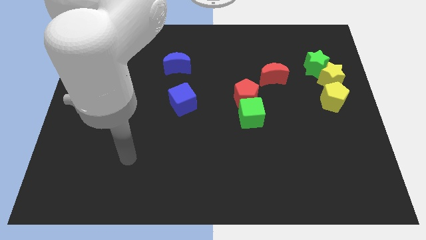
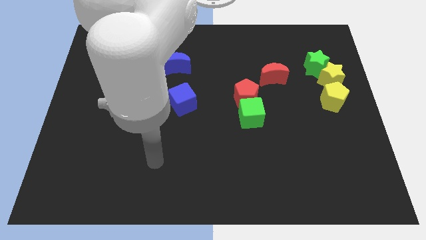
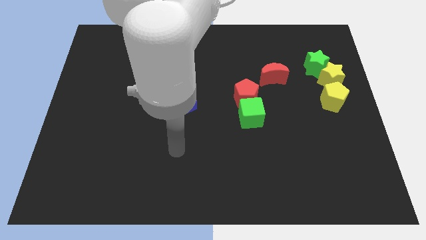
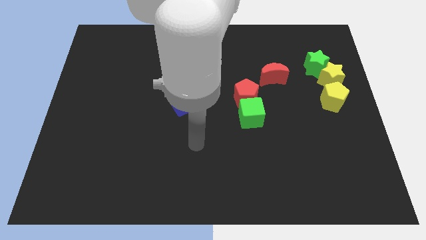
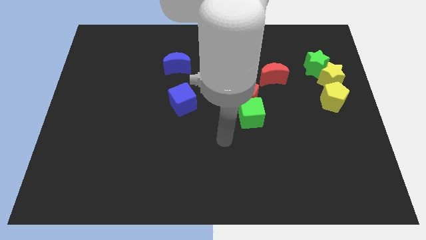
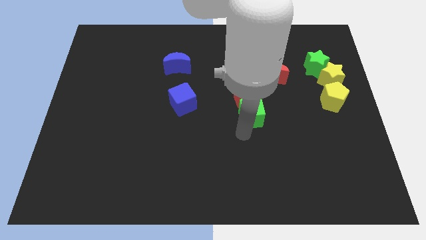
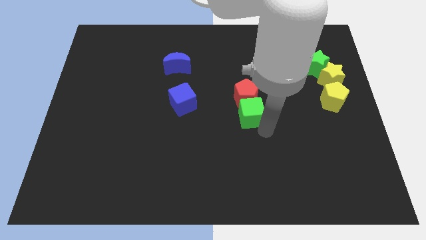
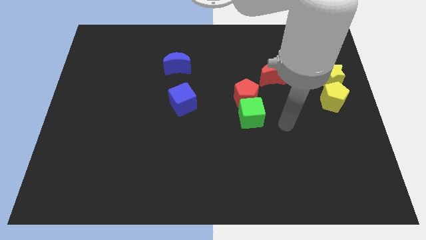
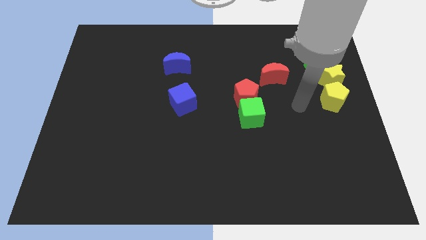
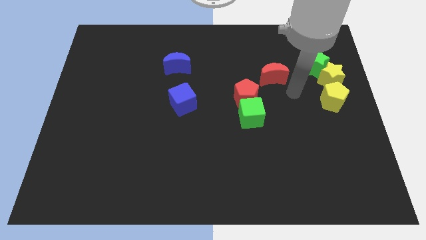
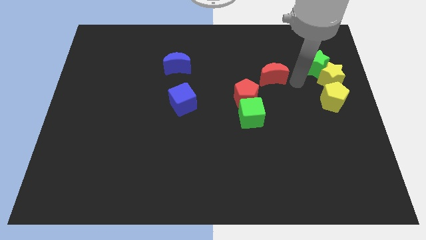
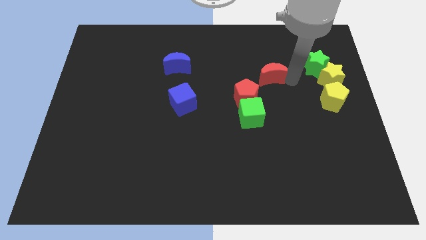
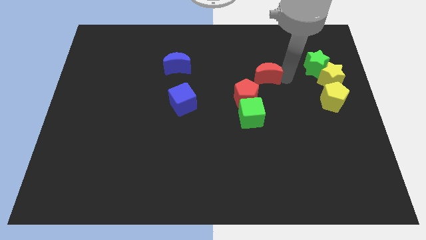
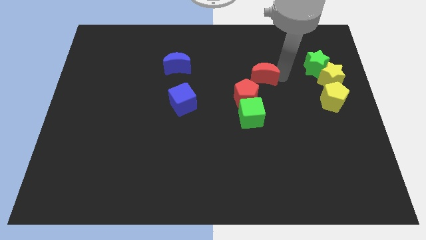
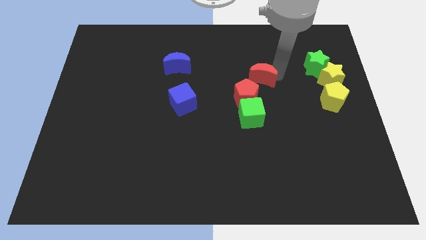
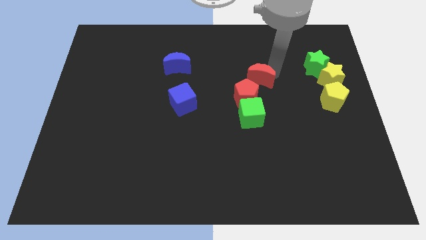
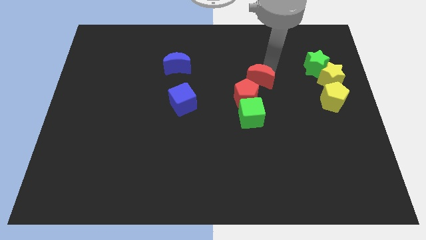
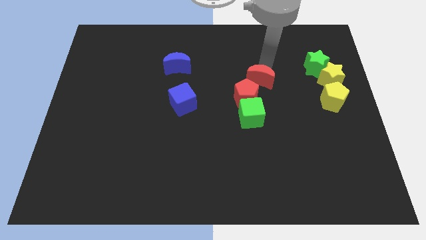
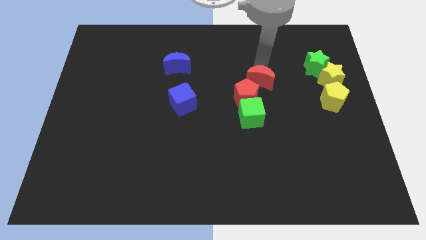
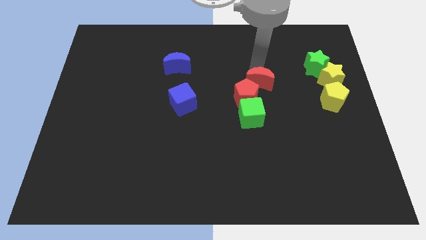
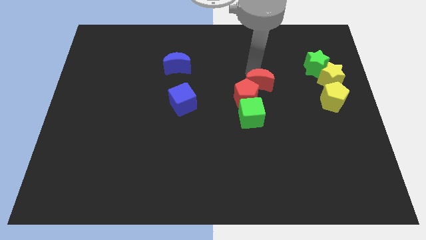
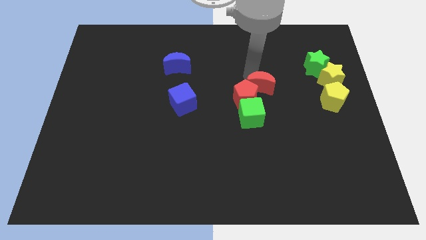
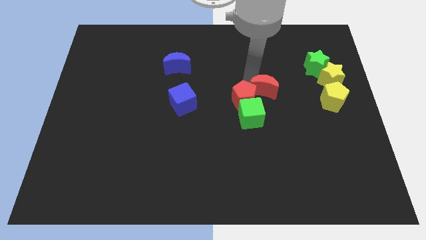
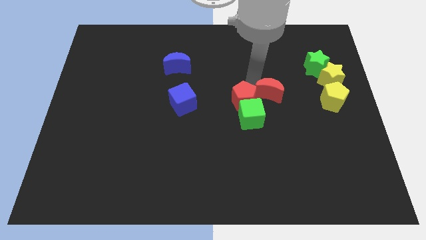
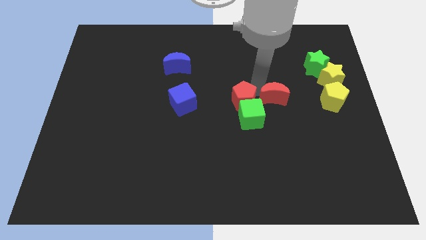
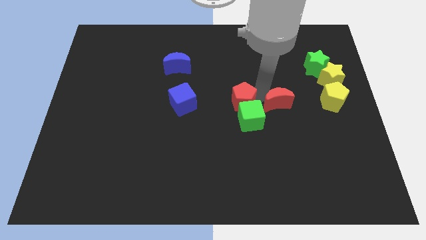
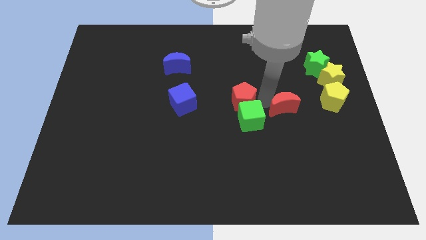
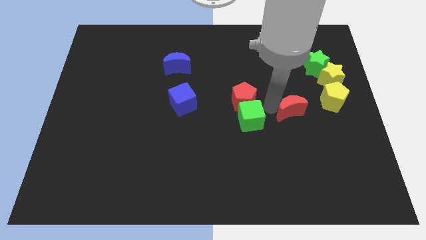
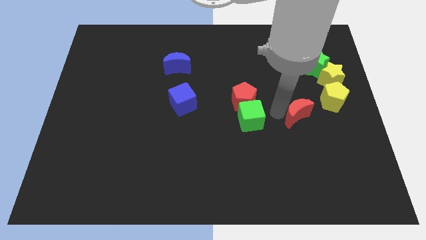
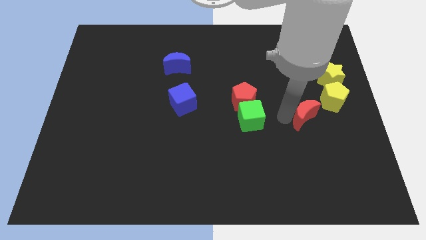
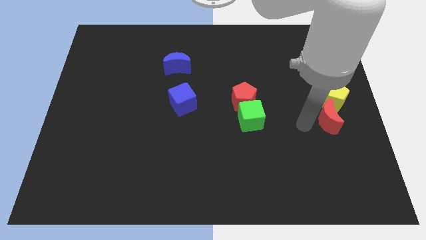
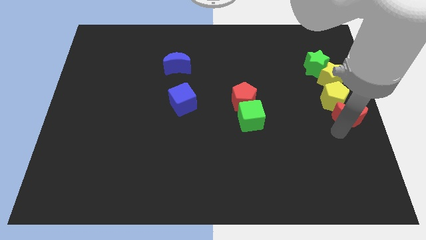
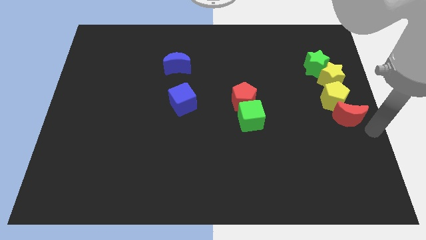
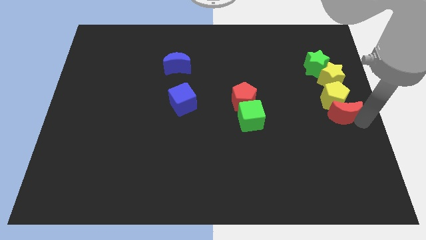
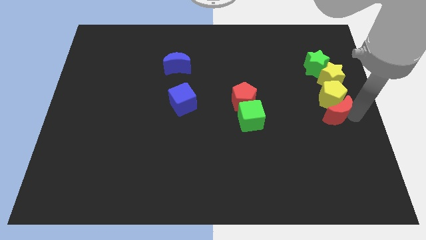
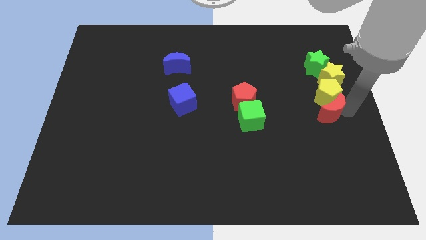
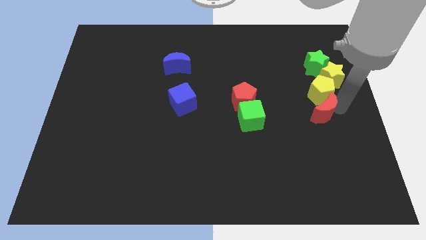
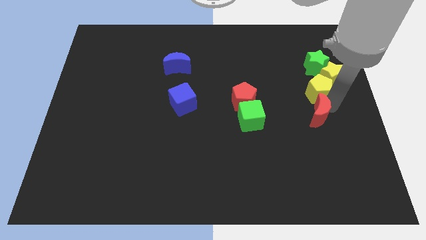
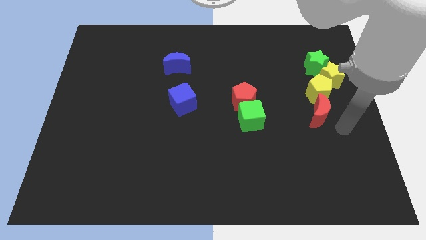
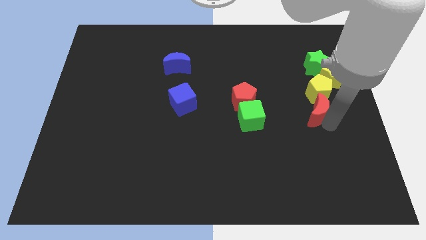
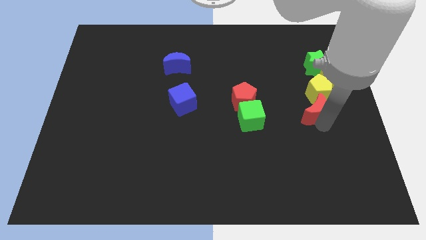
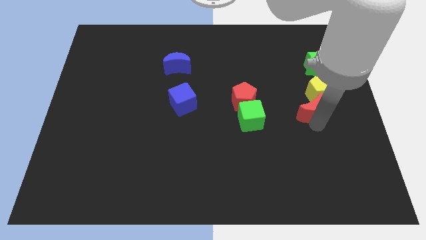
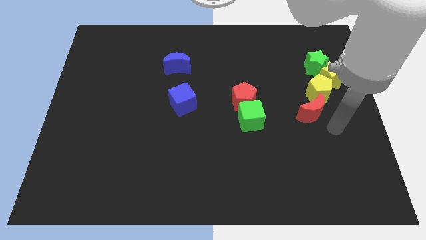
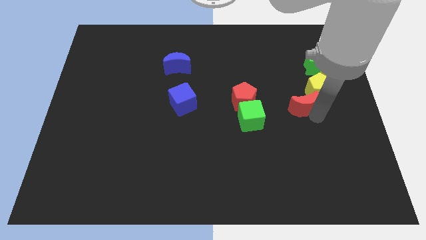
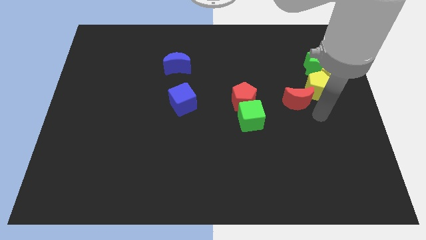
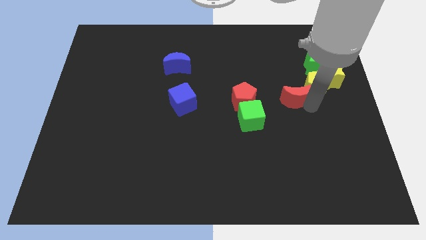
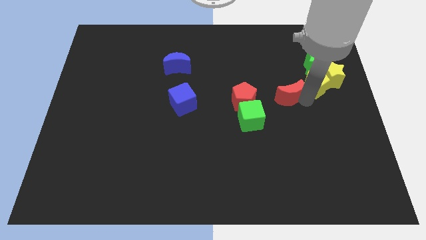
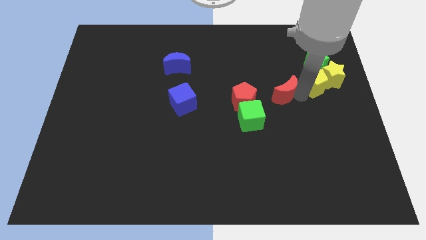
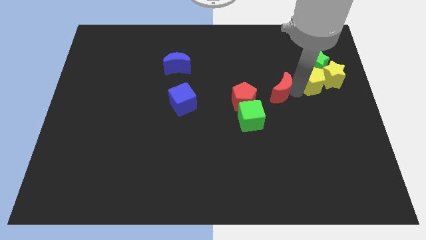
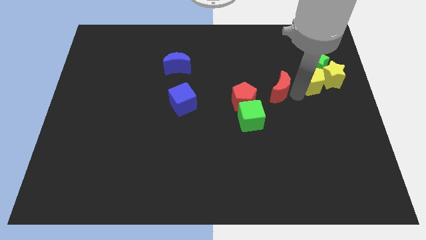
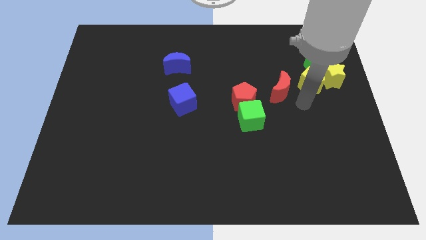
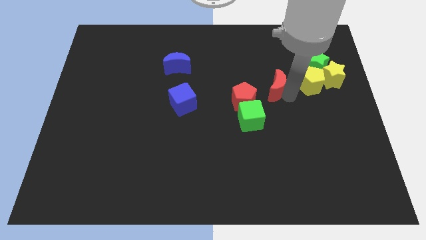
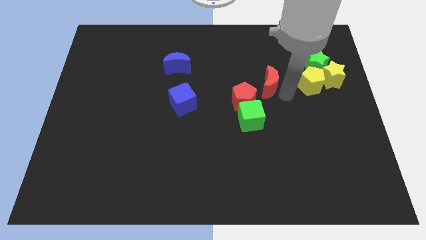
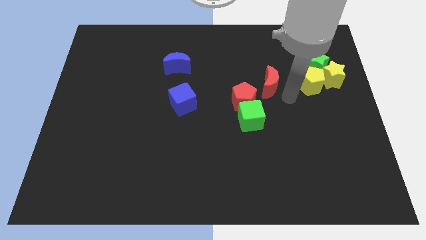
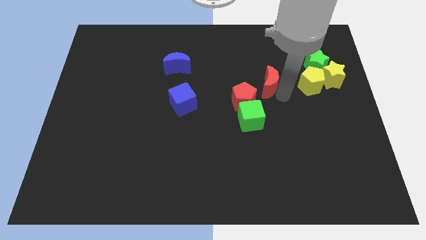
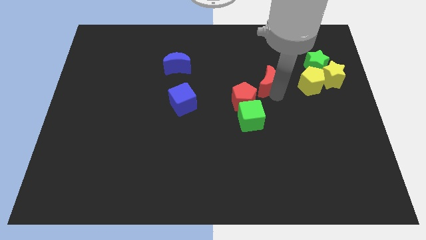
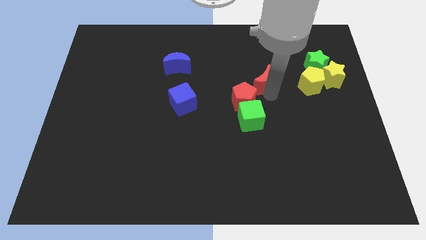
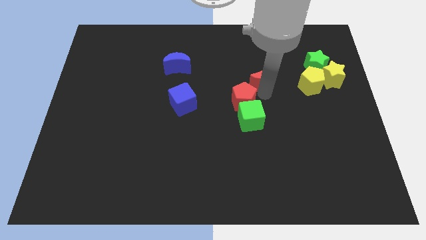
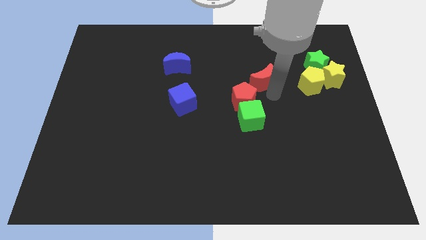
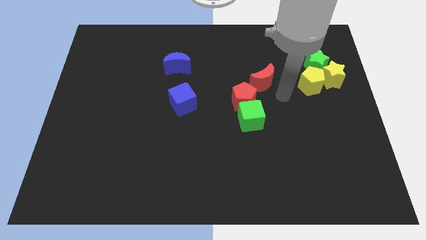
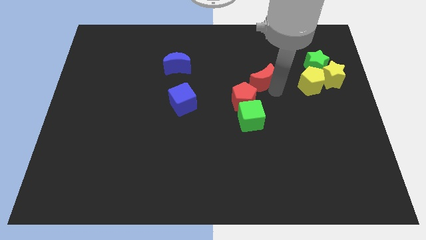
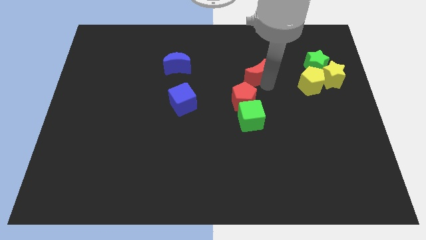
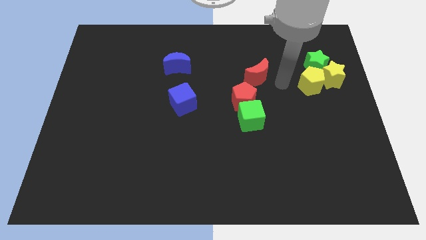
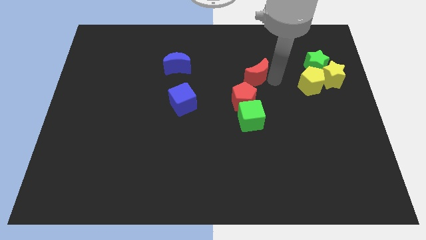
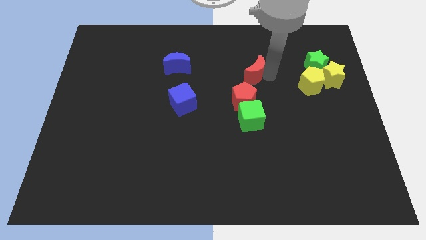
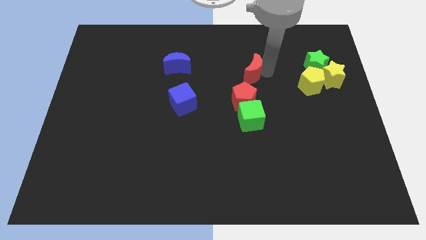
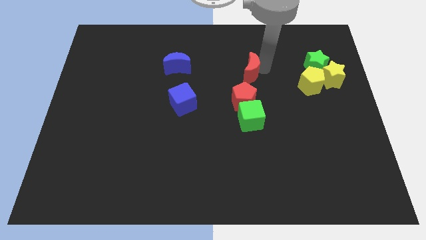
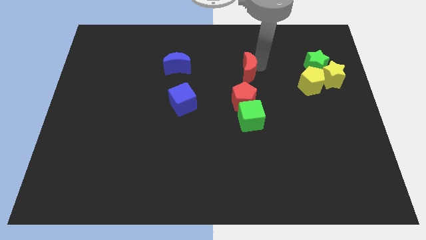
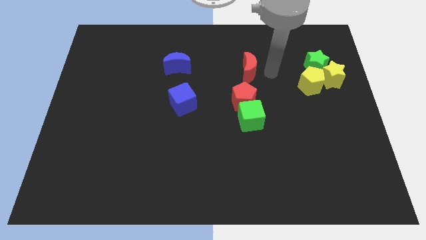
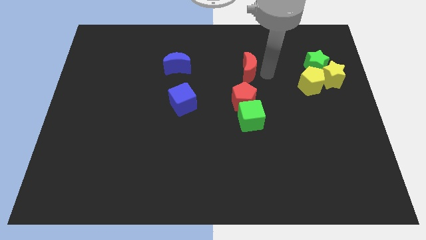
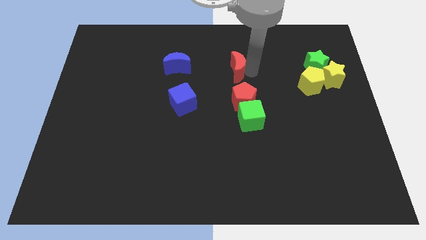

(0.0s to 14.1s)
put the red moon to the right of the blue moon

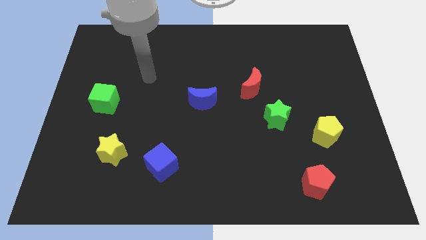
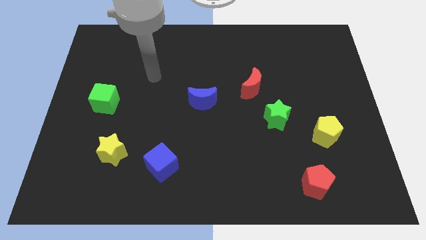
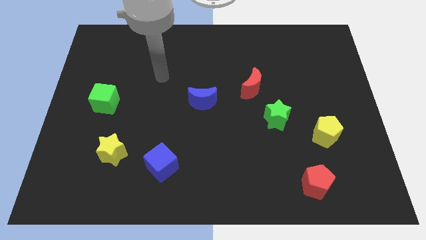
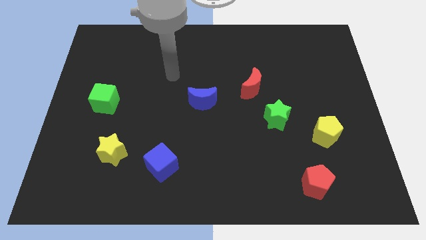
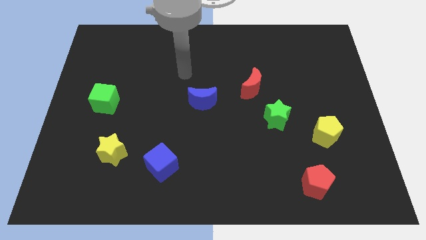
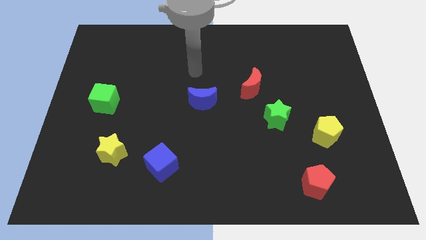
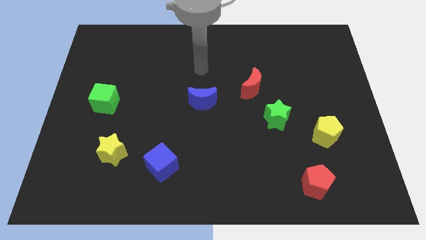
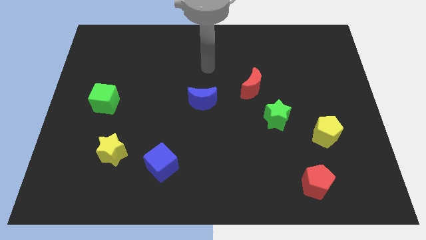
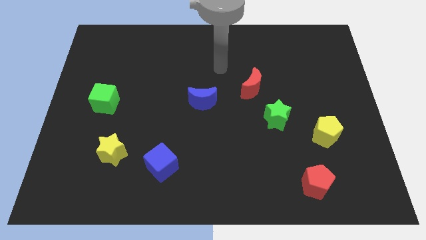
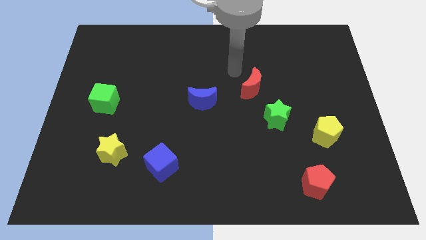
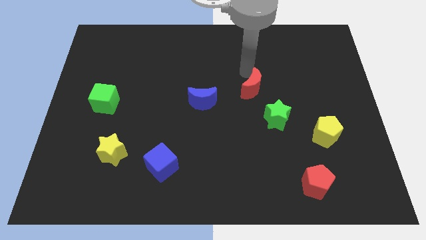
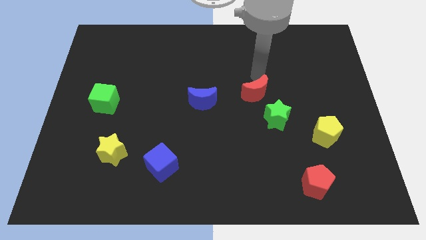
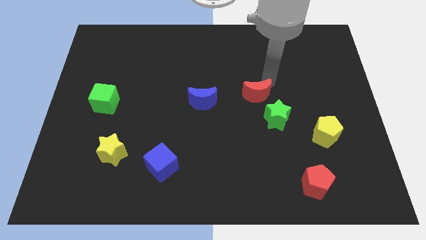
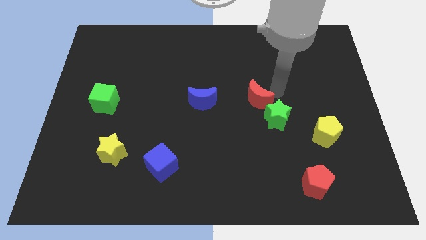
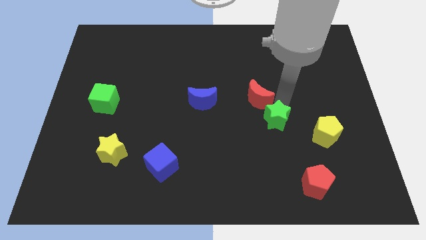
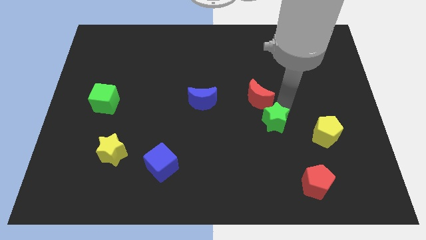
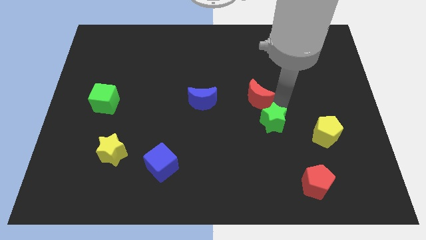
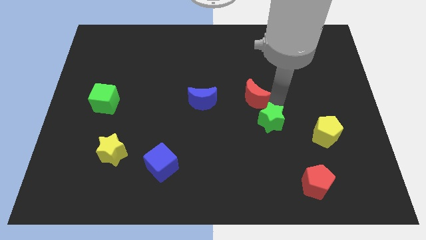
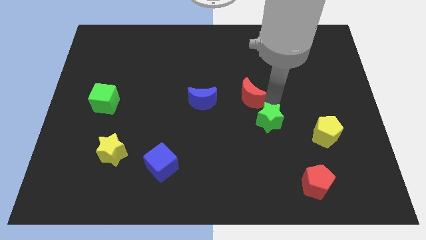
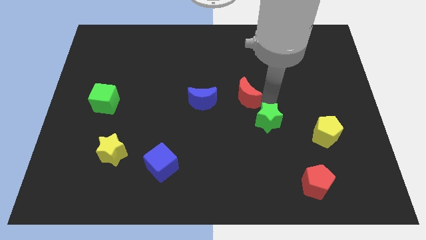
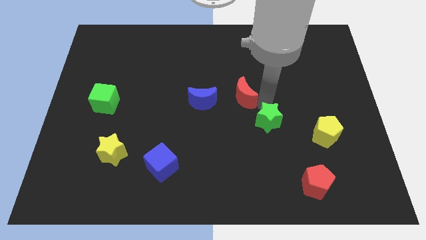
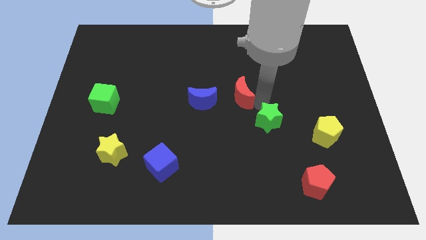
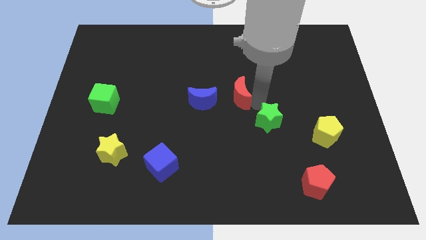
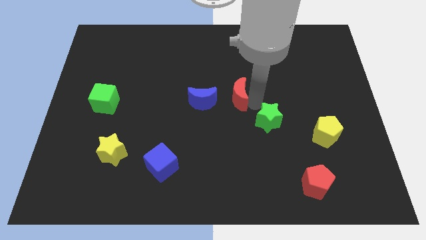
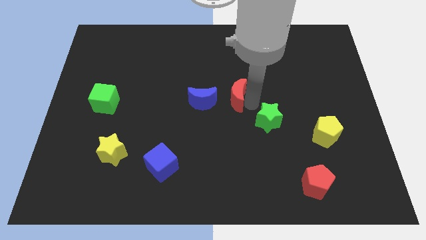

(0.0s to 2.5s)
put the red moon diagonally up and to the right of the blue moon
